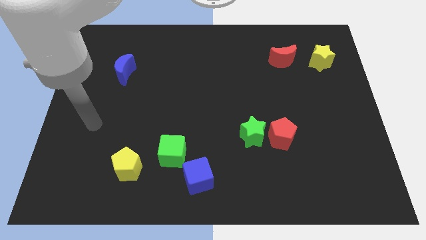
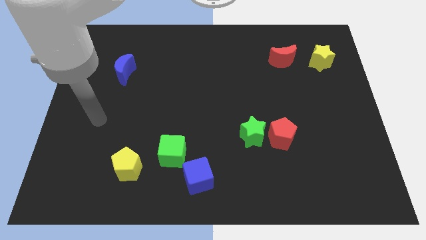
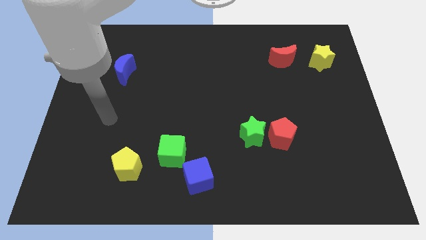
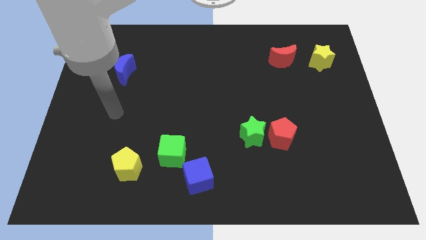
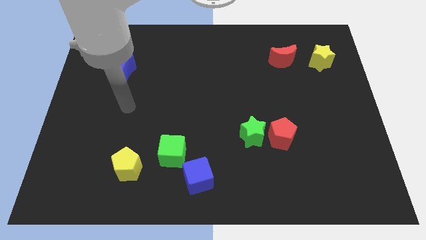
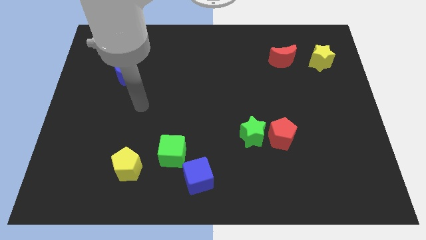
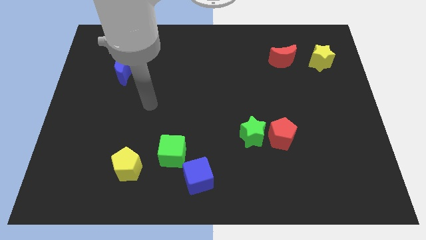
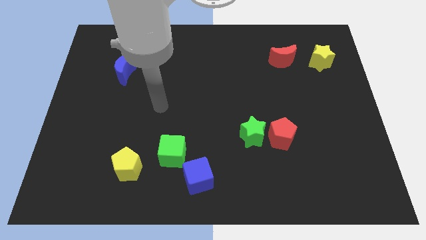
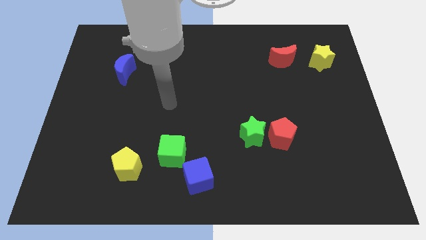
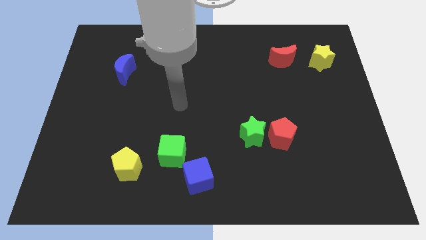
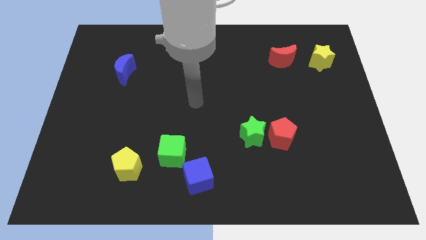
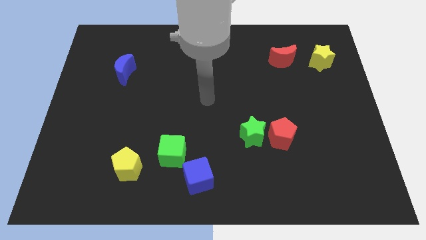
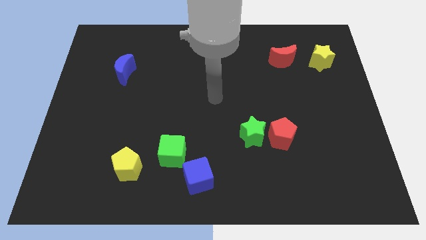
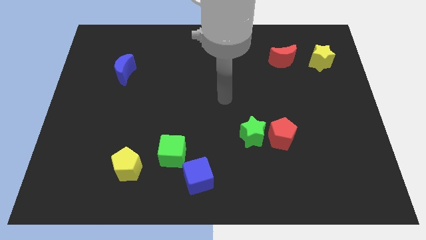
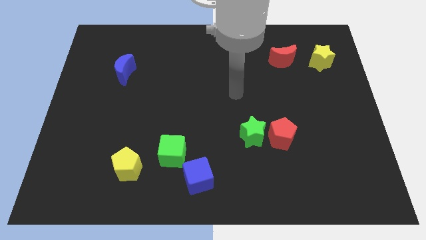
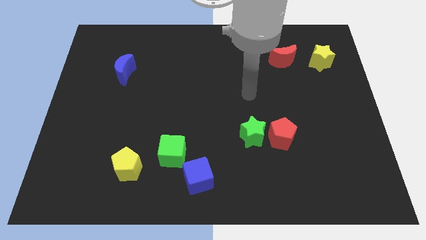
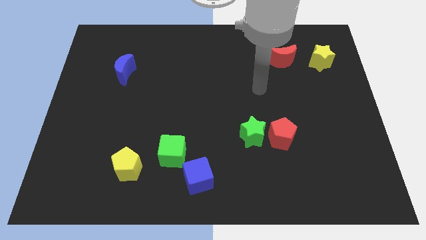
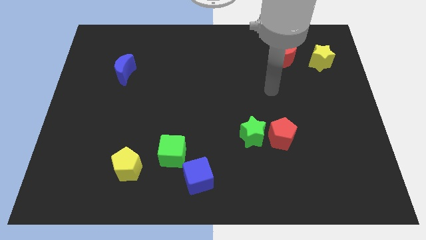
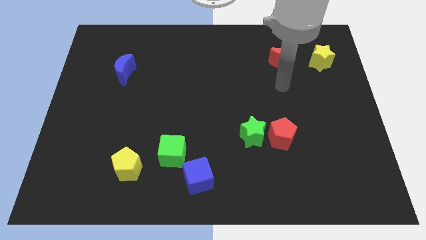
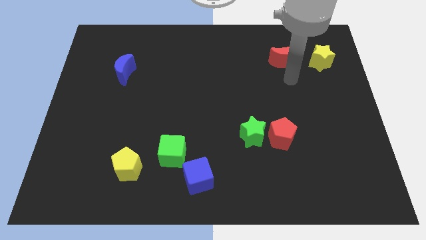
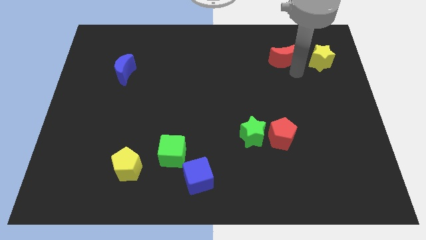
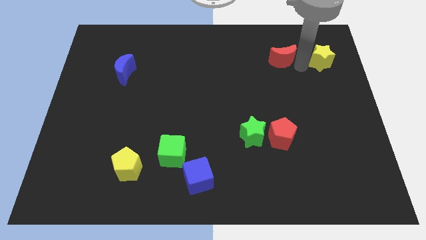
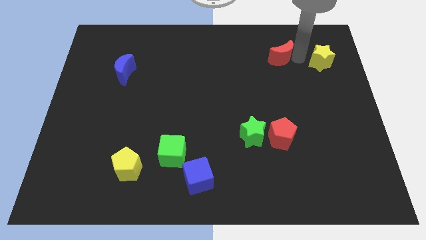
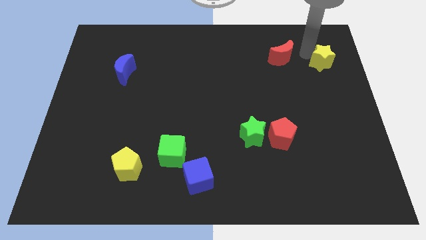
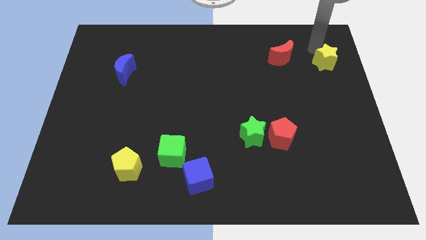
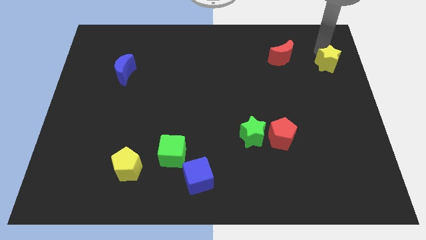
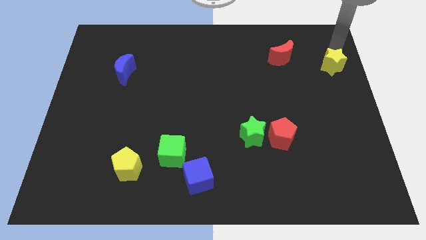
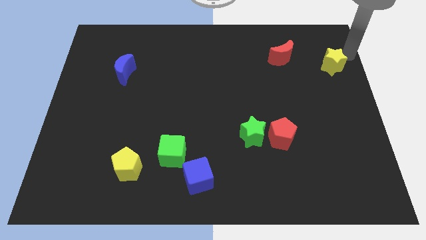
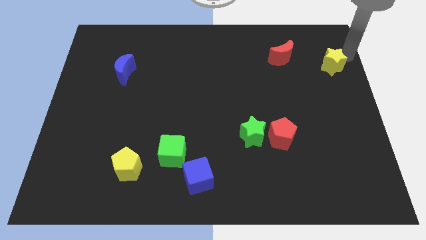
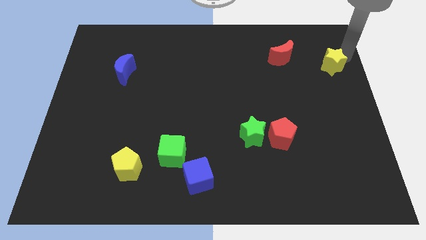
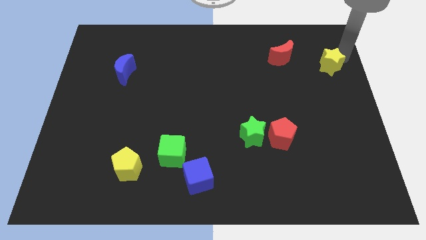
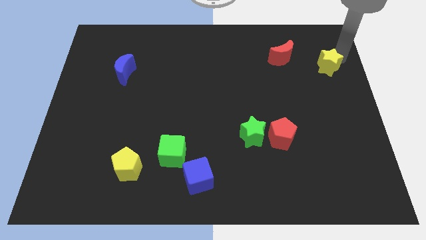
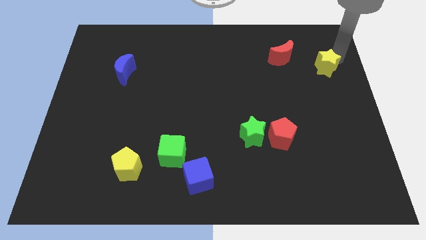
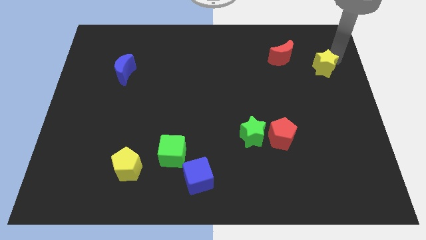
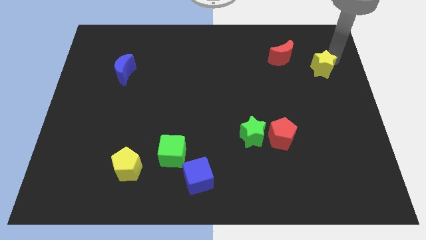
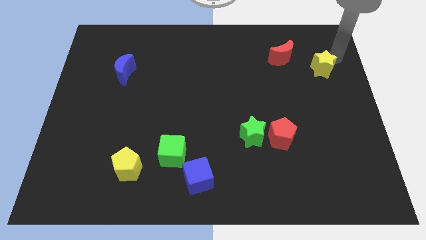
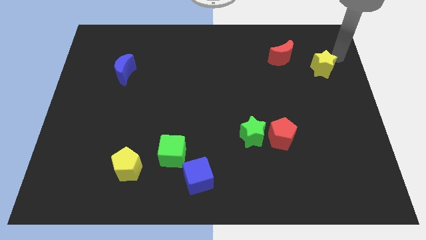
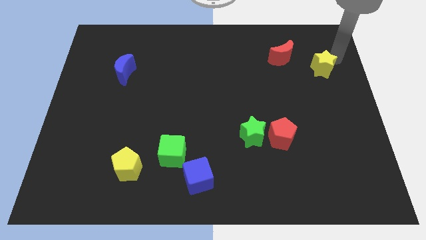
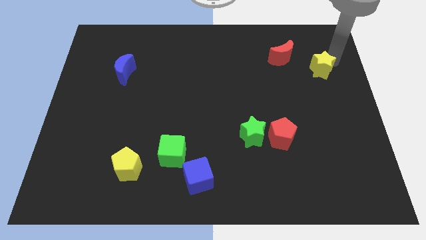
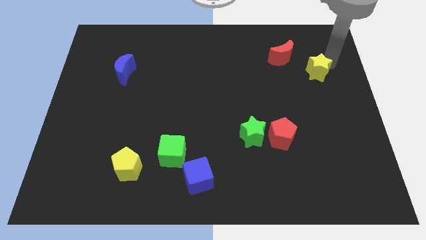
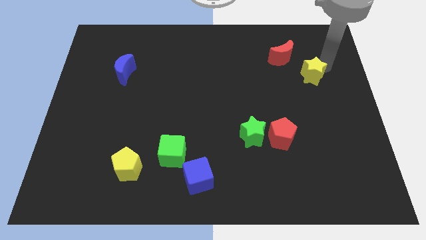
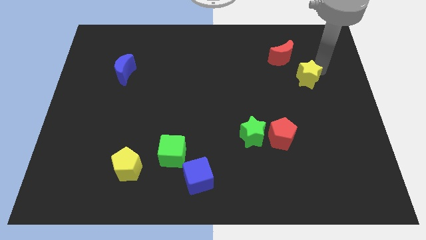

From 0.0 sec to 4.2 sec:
slightly move the yellow star down and then to the left

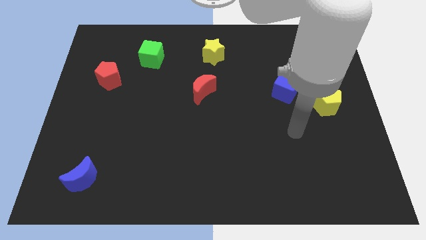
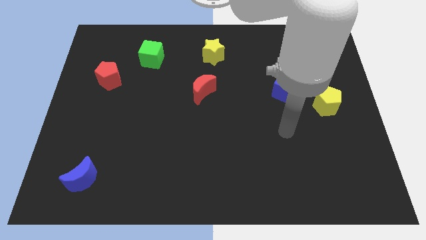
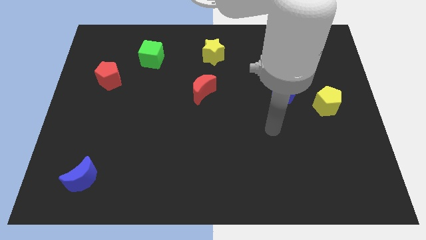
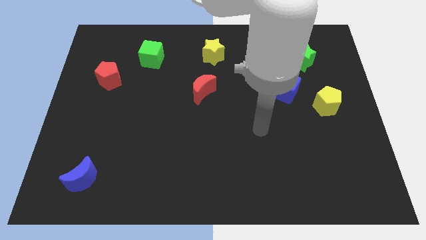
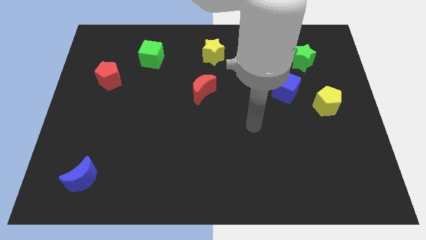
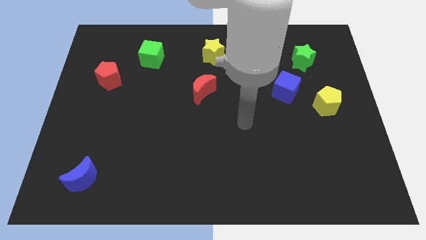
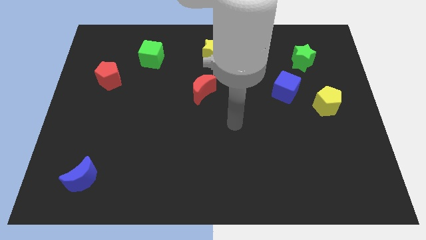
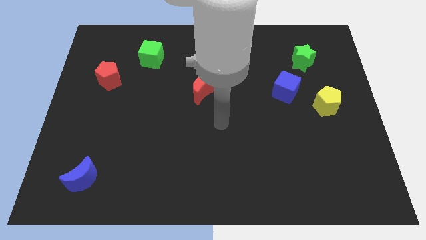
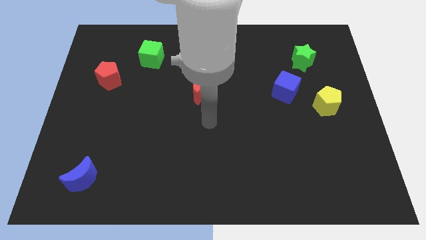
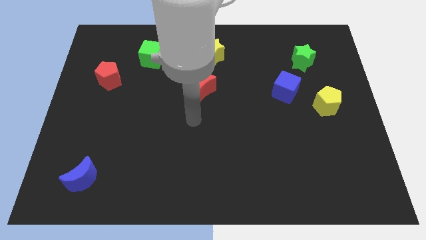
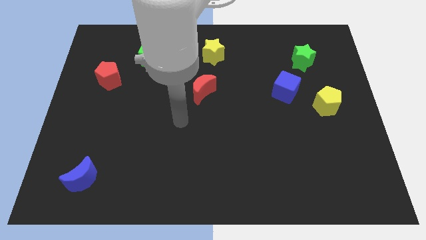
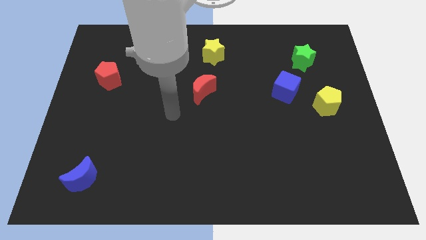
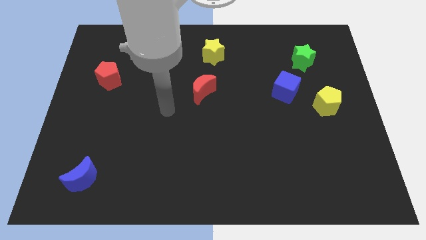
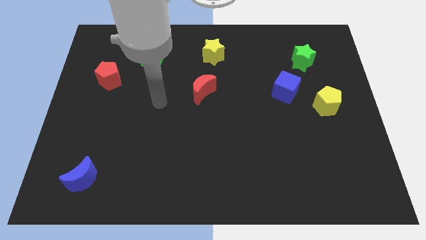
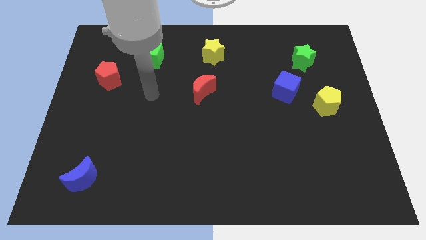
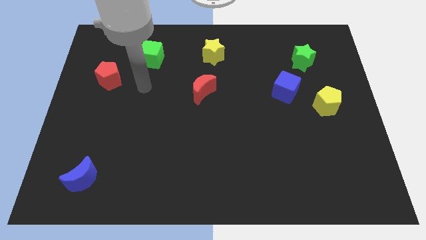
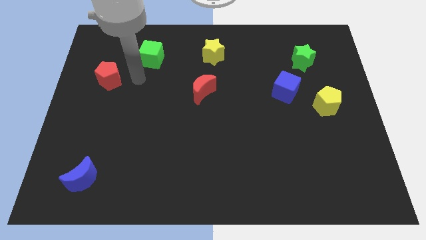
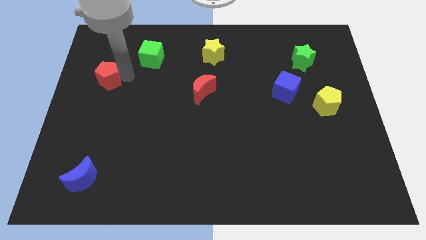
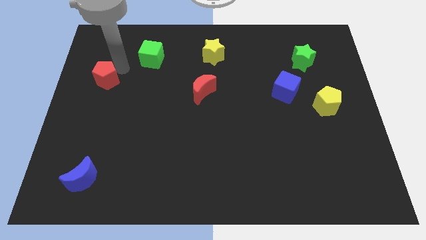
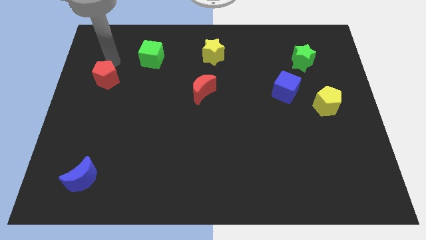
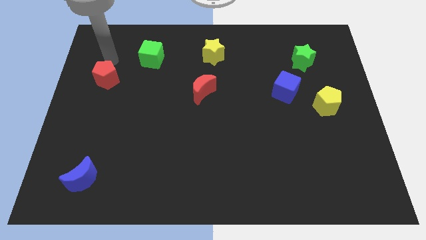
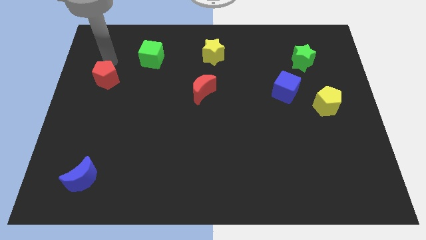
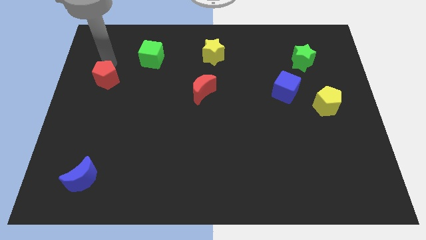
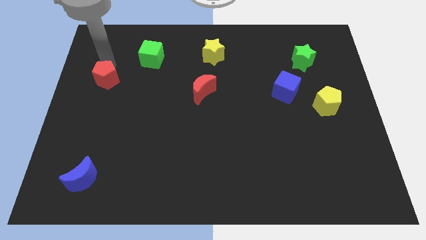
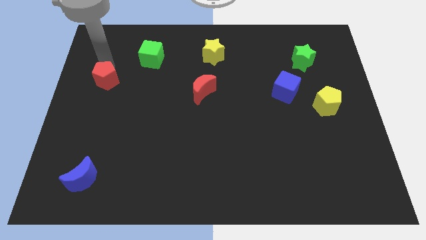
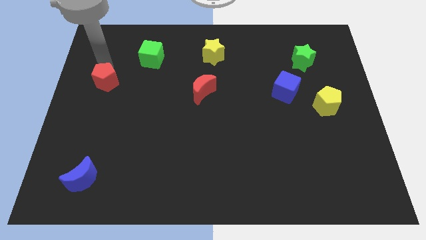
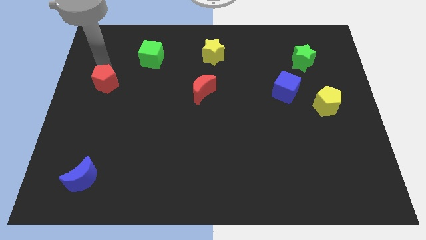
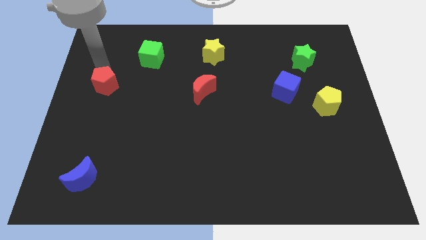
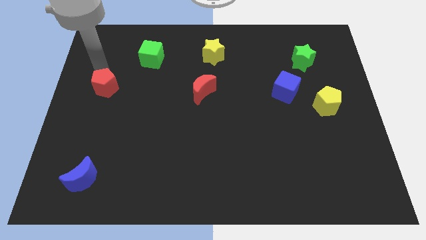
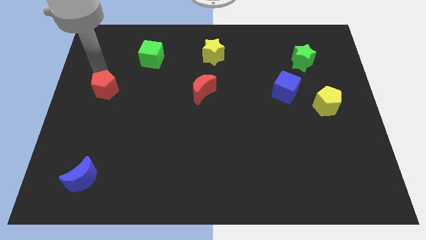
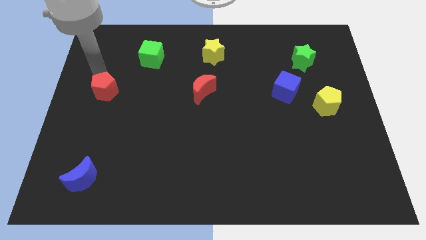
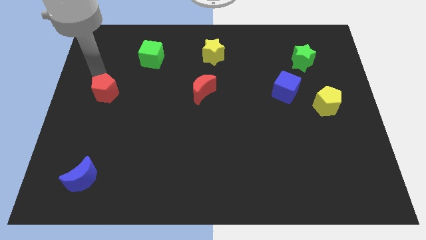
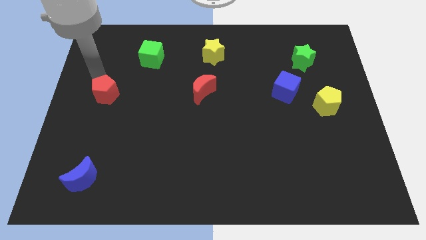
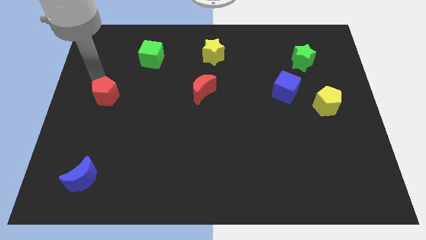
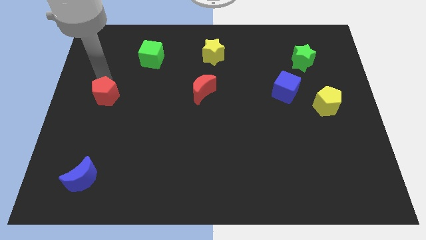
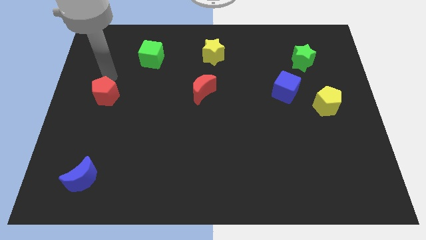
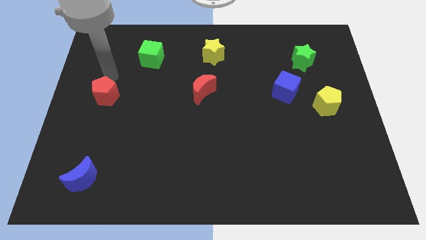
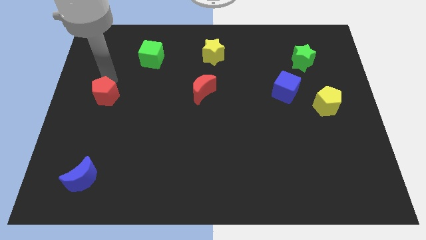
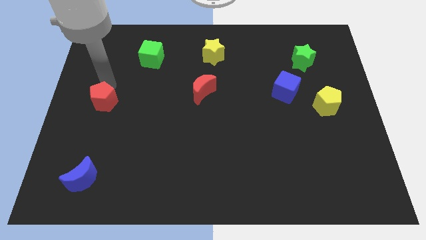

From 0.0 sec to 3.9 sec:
push the red pentagon downwards somewhat
